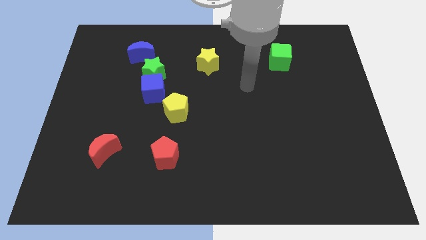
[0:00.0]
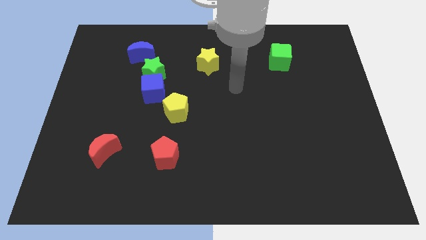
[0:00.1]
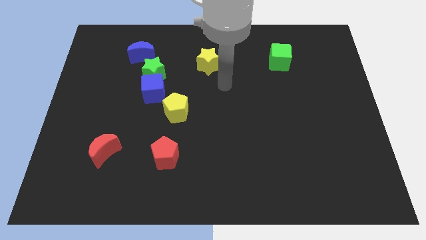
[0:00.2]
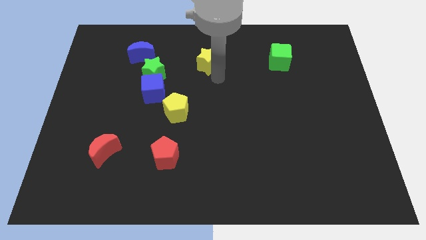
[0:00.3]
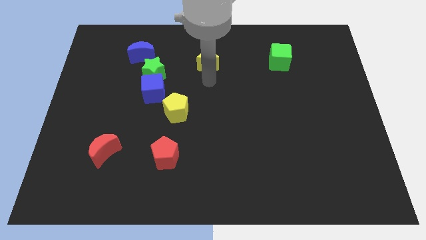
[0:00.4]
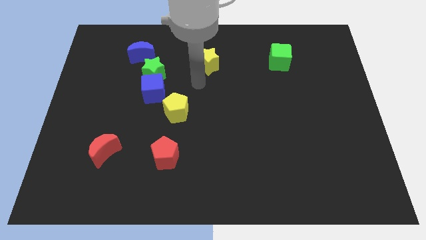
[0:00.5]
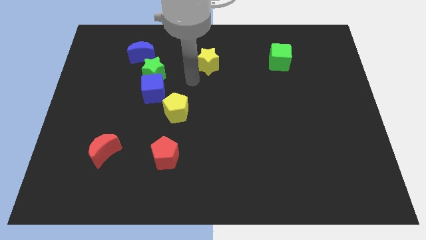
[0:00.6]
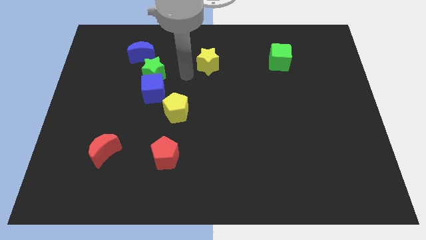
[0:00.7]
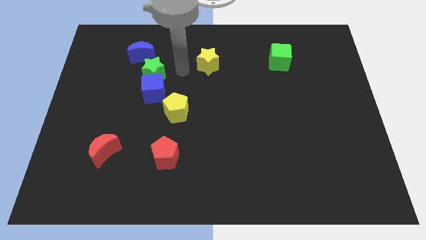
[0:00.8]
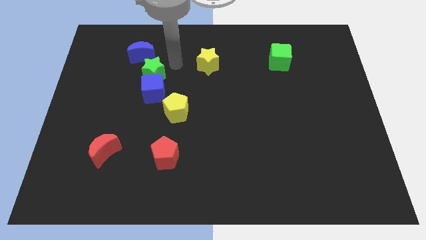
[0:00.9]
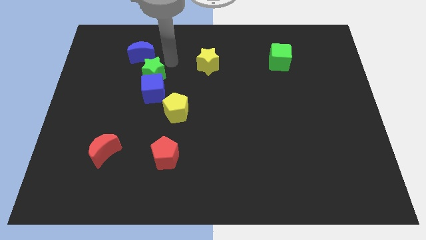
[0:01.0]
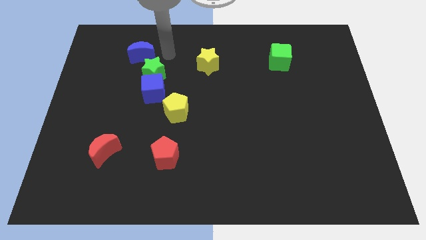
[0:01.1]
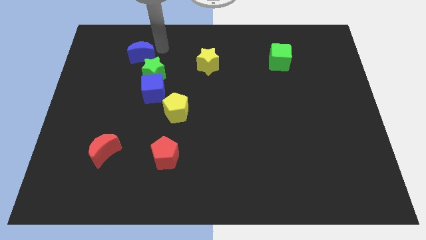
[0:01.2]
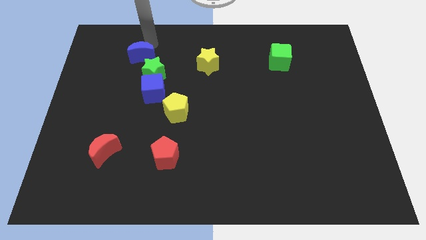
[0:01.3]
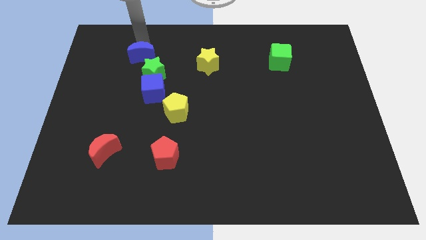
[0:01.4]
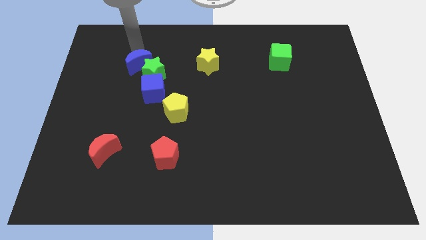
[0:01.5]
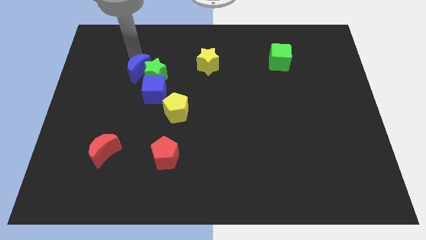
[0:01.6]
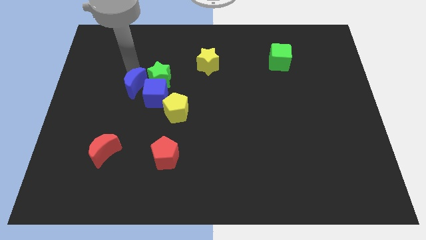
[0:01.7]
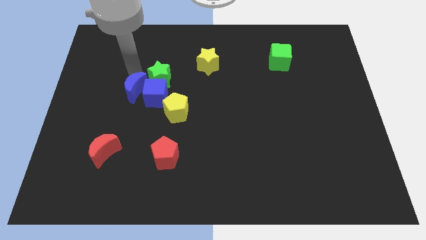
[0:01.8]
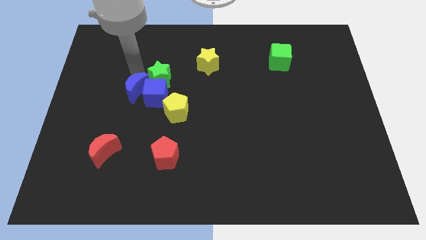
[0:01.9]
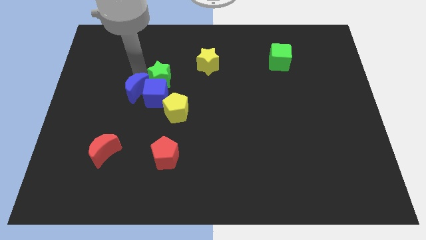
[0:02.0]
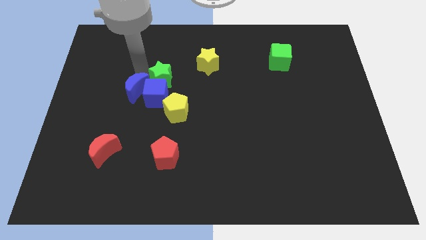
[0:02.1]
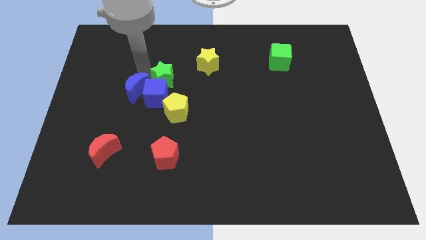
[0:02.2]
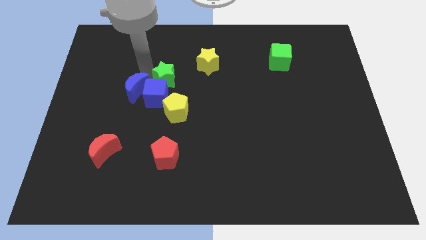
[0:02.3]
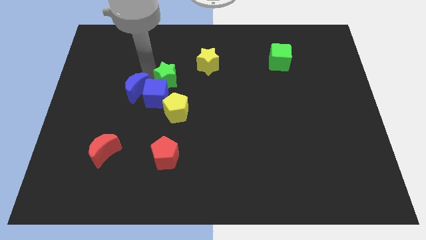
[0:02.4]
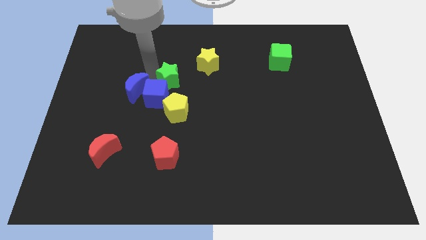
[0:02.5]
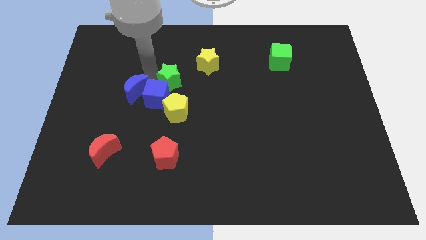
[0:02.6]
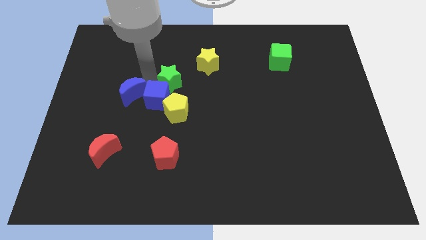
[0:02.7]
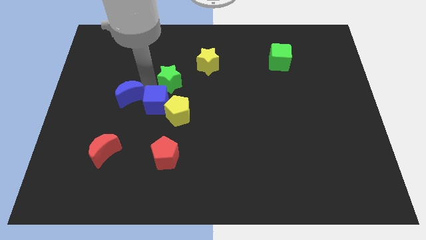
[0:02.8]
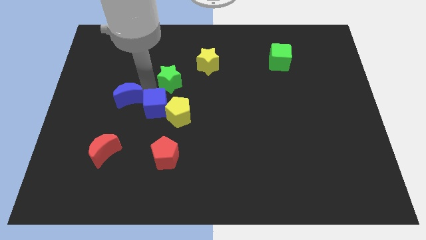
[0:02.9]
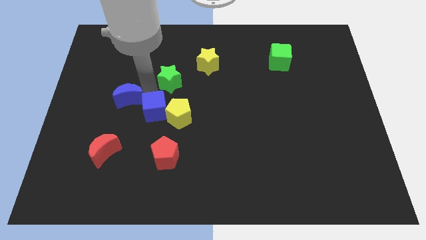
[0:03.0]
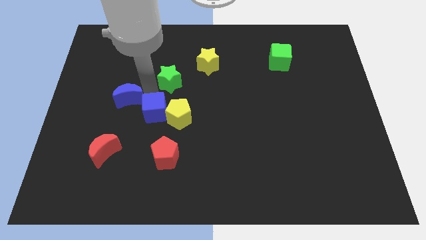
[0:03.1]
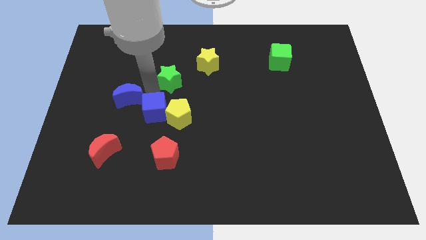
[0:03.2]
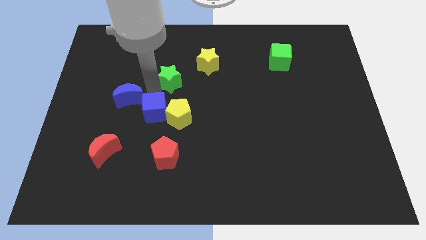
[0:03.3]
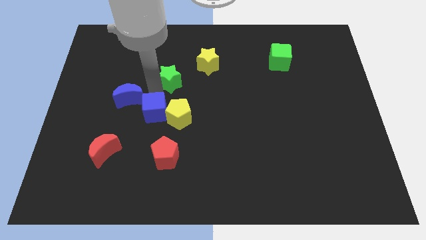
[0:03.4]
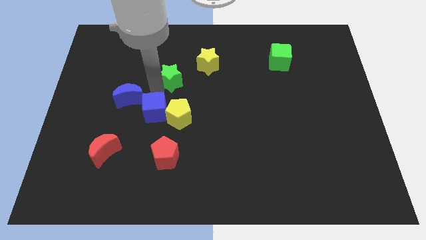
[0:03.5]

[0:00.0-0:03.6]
pull the green star apart from the blue cube and blue moon

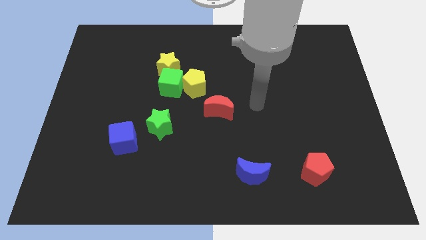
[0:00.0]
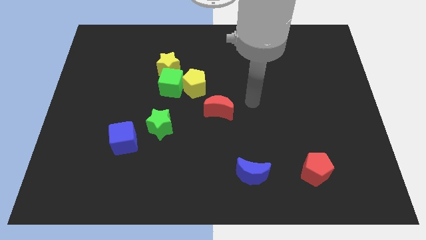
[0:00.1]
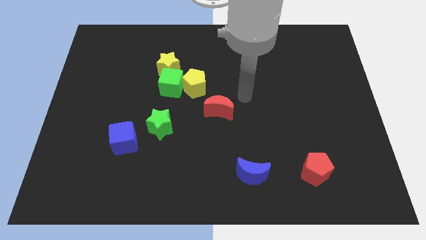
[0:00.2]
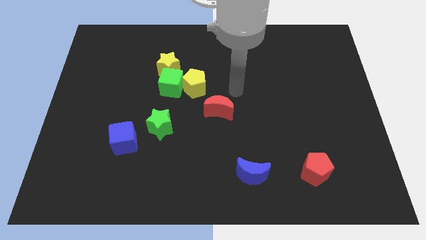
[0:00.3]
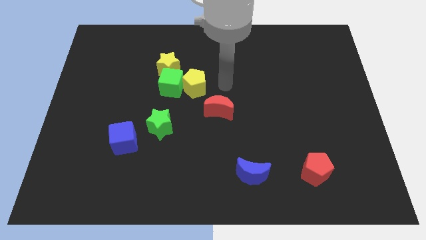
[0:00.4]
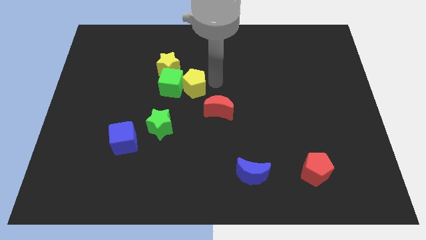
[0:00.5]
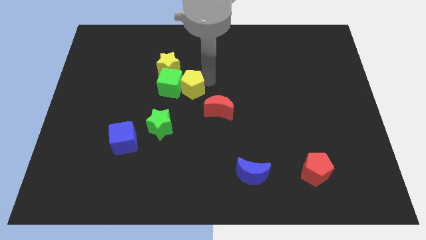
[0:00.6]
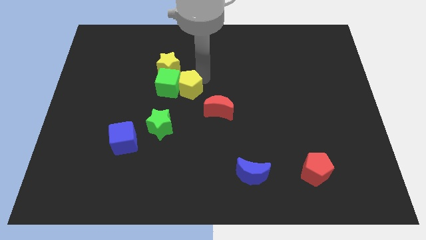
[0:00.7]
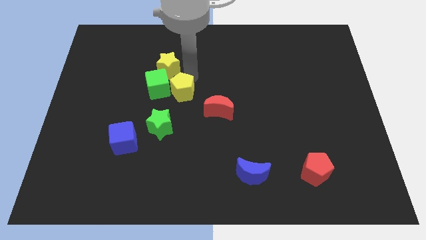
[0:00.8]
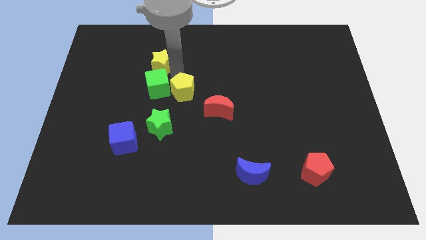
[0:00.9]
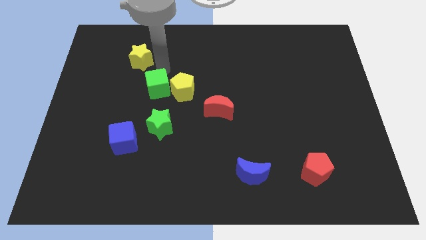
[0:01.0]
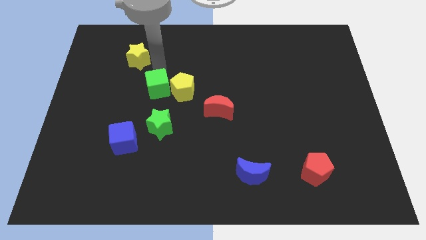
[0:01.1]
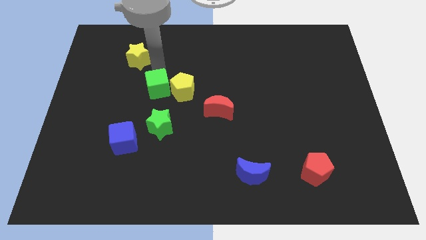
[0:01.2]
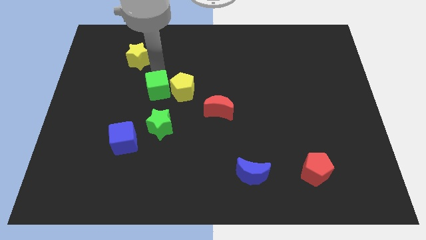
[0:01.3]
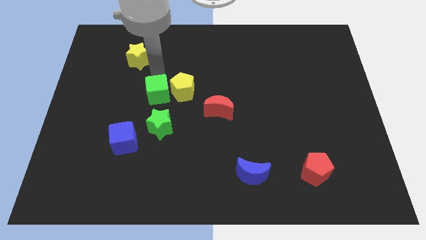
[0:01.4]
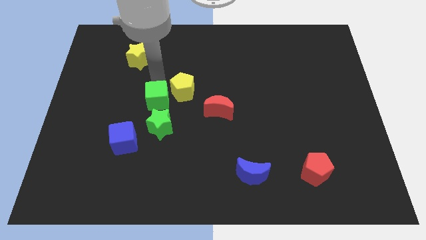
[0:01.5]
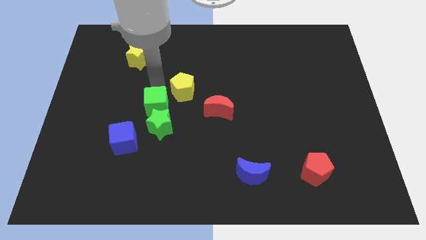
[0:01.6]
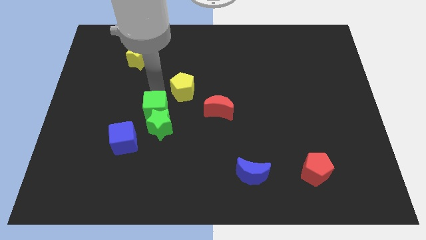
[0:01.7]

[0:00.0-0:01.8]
pull the green cube apart from the yellow pentagon and yellow star

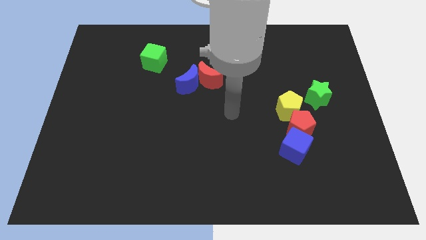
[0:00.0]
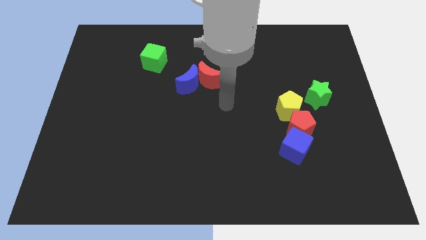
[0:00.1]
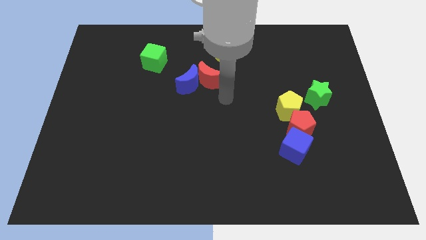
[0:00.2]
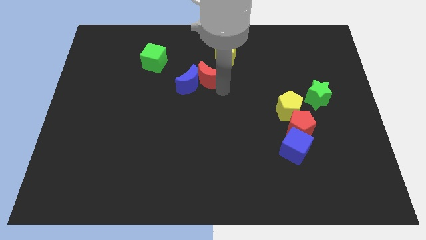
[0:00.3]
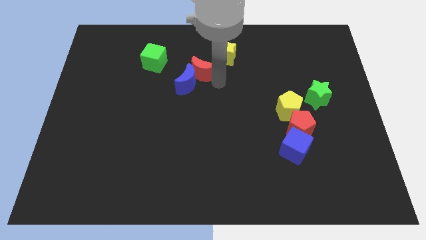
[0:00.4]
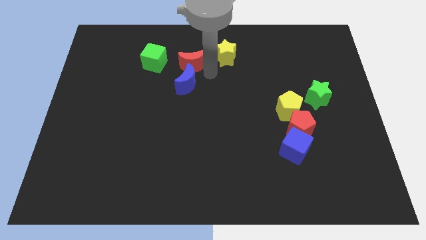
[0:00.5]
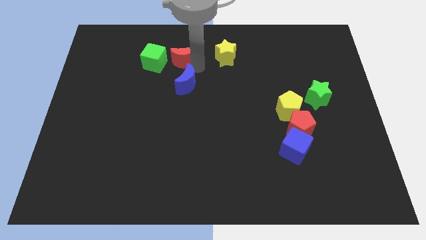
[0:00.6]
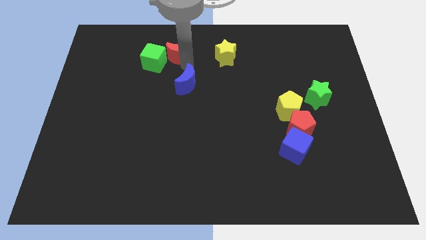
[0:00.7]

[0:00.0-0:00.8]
separate the blue moon from the red moon

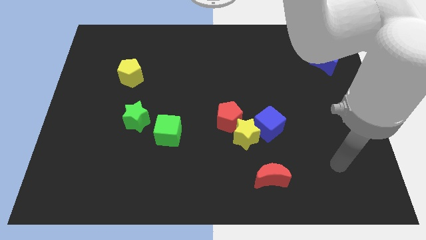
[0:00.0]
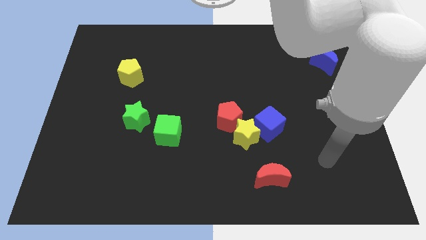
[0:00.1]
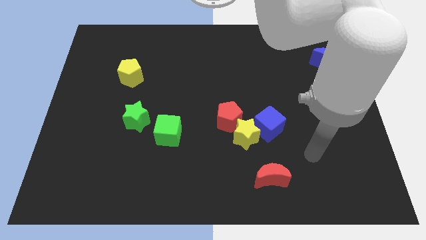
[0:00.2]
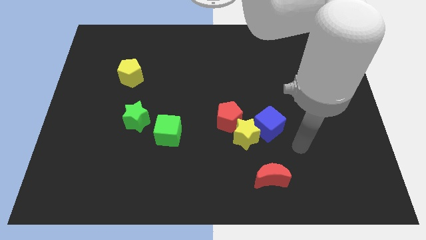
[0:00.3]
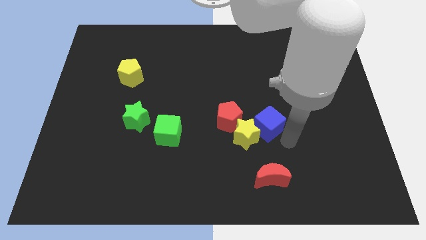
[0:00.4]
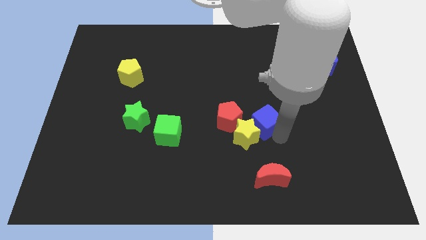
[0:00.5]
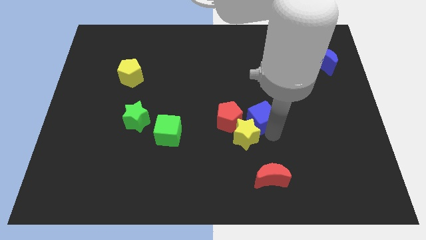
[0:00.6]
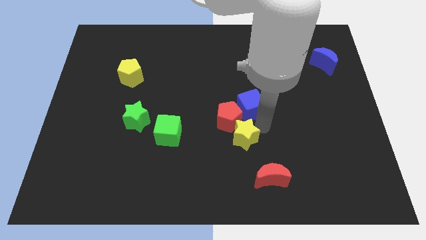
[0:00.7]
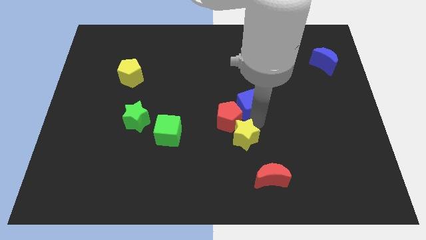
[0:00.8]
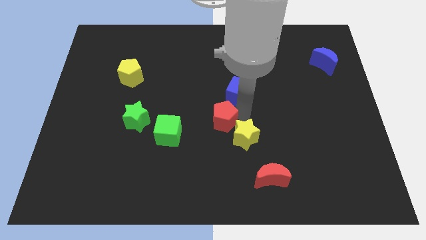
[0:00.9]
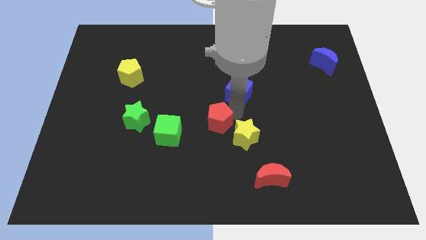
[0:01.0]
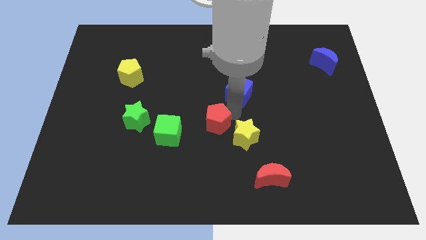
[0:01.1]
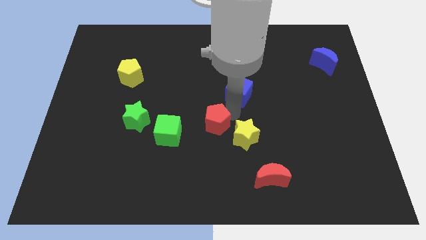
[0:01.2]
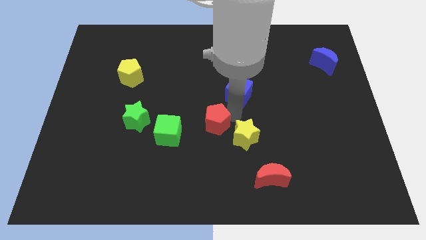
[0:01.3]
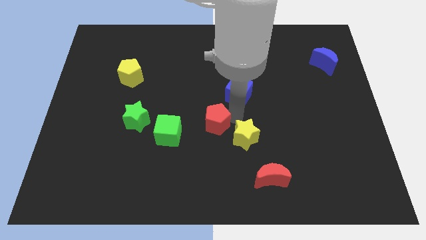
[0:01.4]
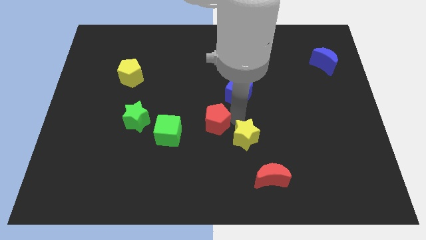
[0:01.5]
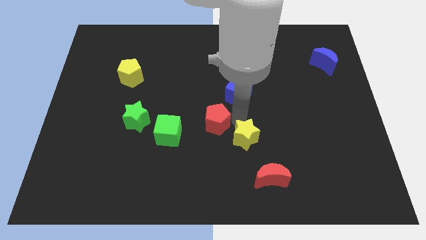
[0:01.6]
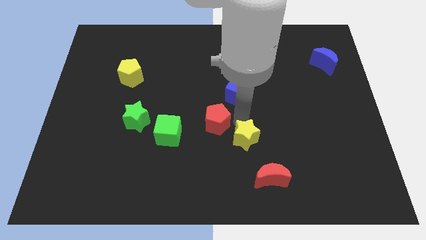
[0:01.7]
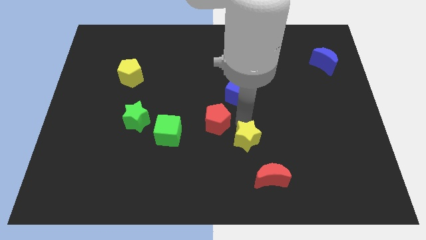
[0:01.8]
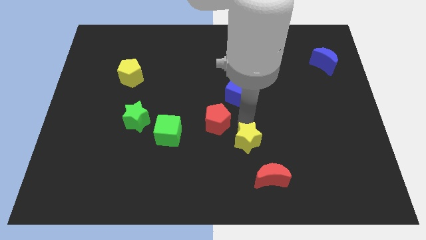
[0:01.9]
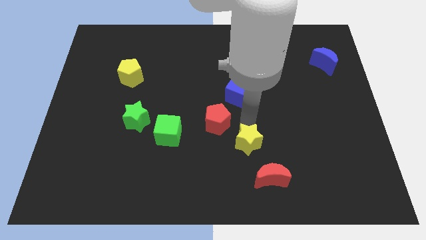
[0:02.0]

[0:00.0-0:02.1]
move the yellow star away from the blue cube and red pentagon

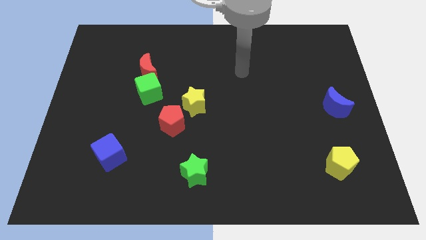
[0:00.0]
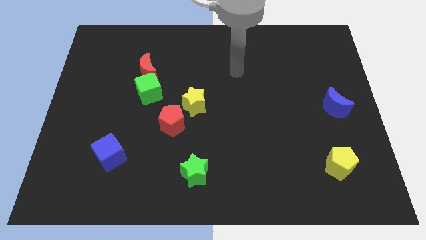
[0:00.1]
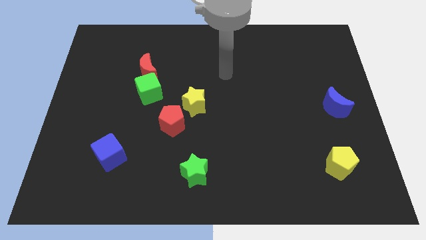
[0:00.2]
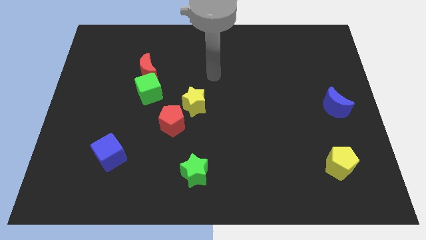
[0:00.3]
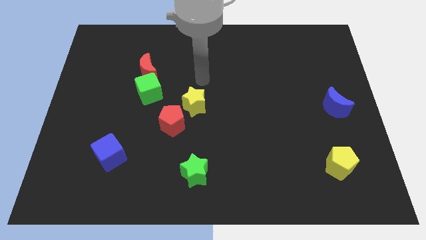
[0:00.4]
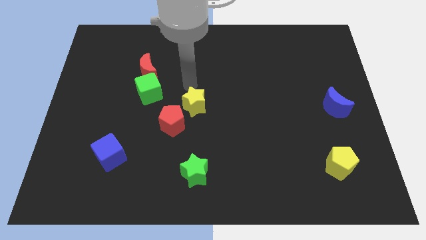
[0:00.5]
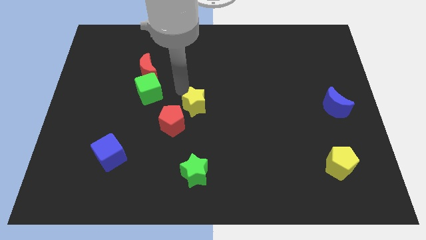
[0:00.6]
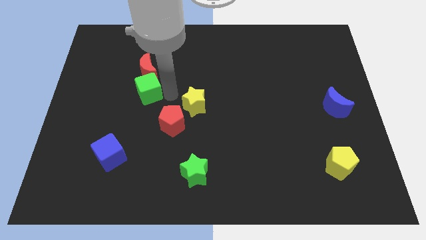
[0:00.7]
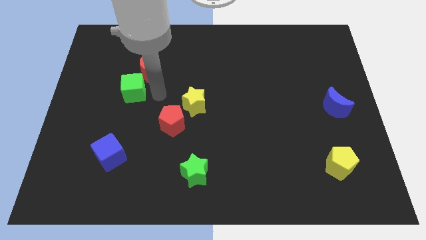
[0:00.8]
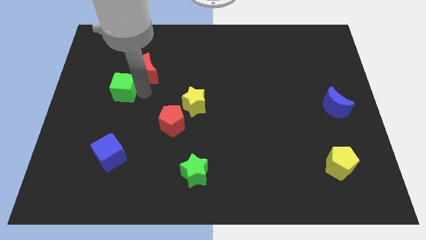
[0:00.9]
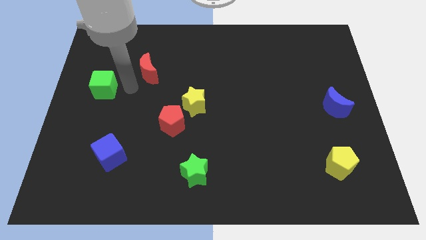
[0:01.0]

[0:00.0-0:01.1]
separate the red moon from the green cube
